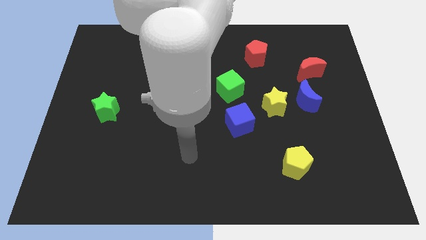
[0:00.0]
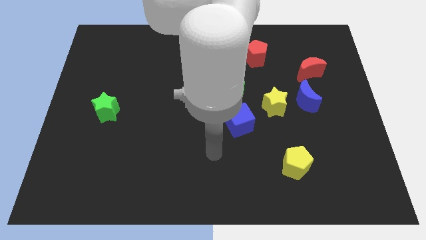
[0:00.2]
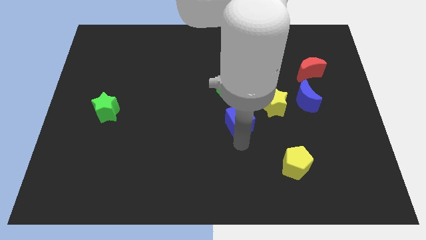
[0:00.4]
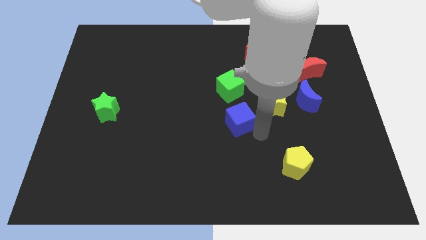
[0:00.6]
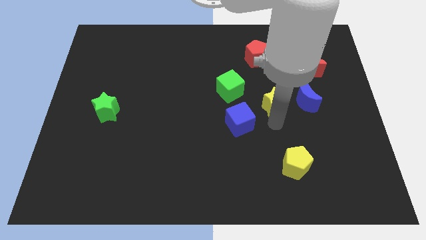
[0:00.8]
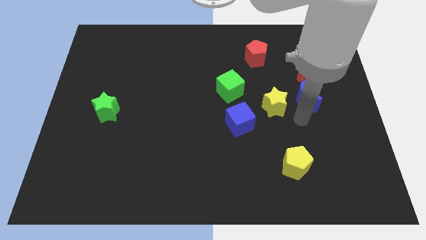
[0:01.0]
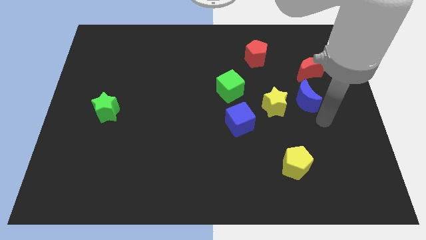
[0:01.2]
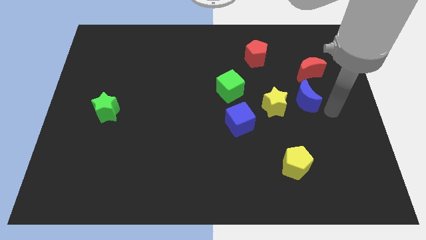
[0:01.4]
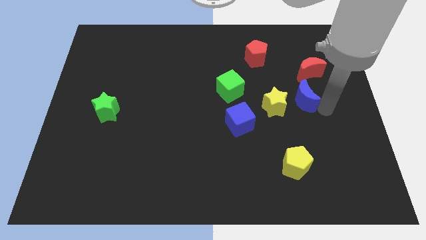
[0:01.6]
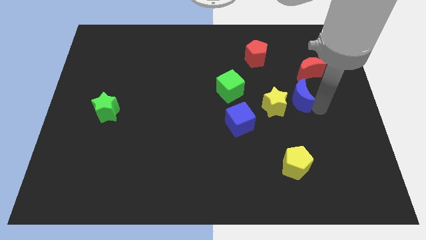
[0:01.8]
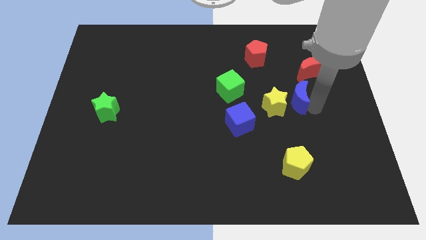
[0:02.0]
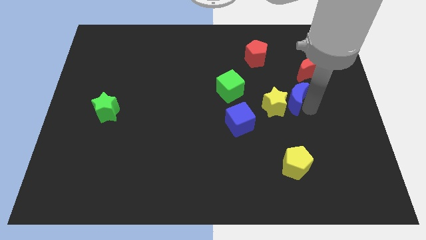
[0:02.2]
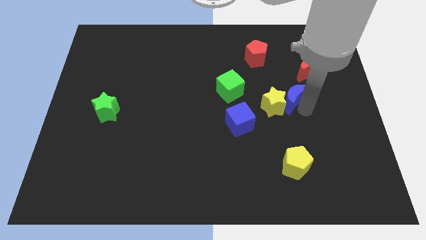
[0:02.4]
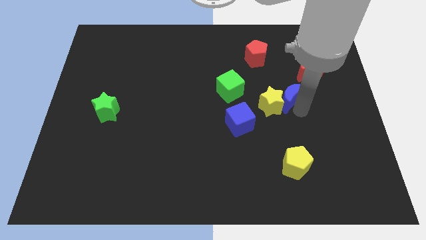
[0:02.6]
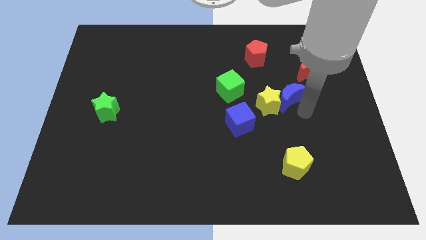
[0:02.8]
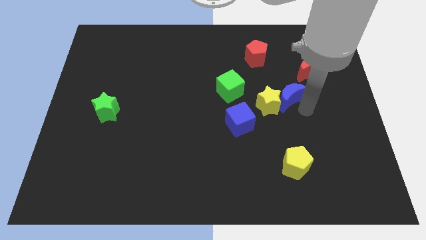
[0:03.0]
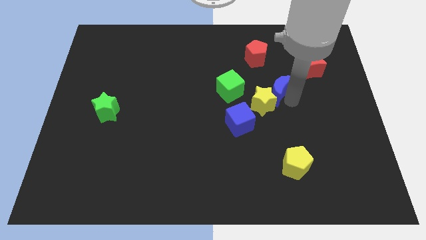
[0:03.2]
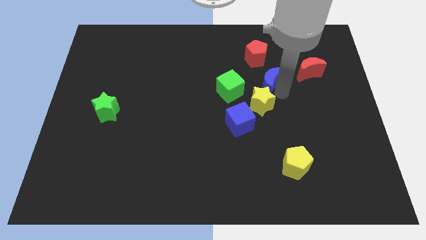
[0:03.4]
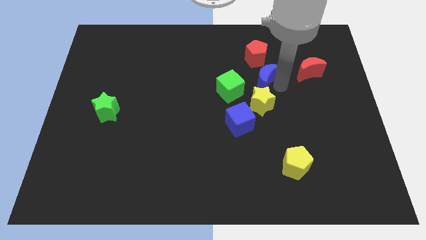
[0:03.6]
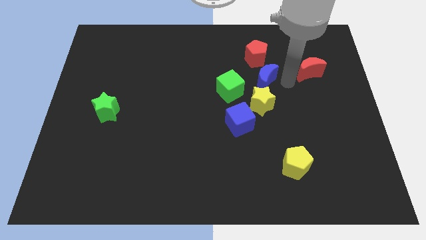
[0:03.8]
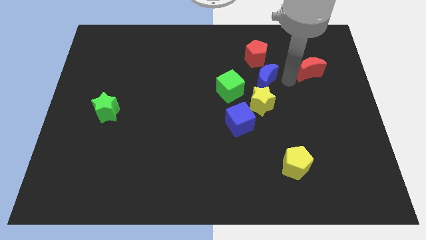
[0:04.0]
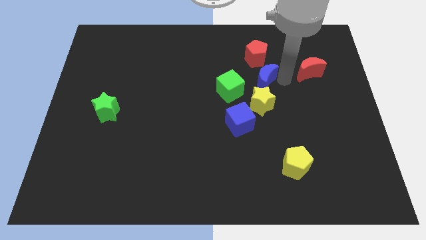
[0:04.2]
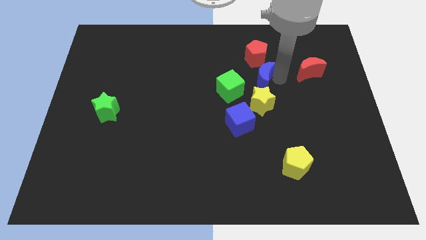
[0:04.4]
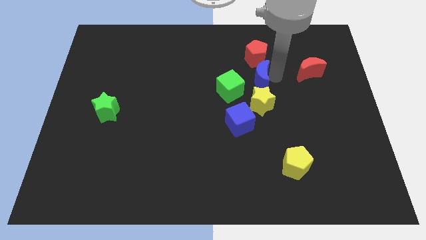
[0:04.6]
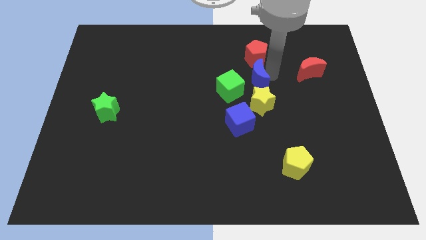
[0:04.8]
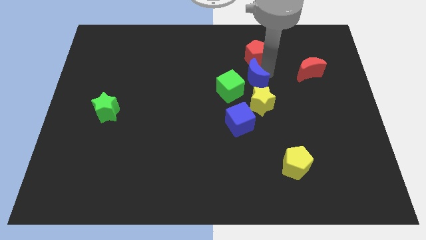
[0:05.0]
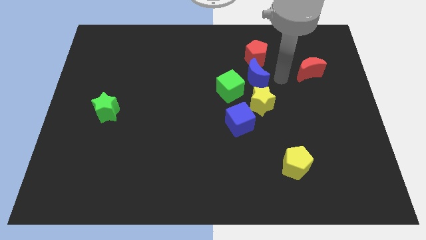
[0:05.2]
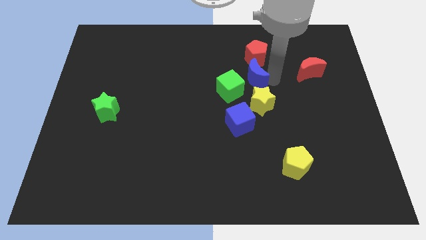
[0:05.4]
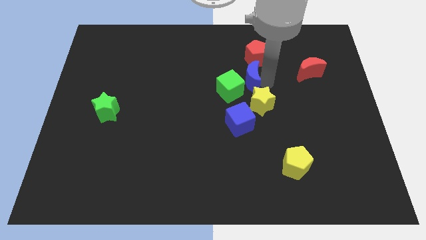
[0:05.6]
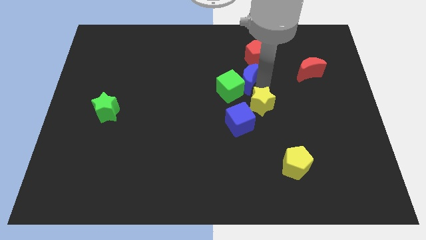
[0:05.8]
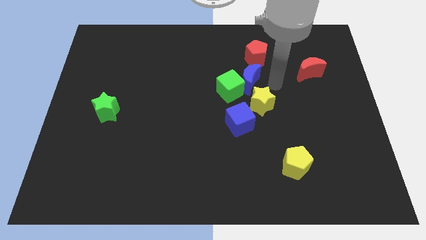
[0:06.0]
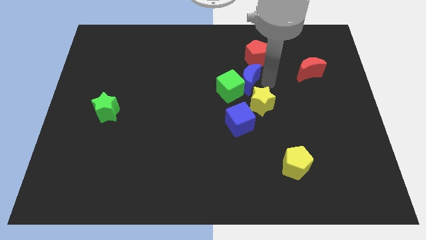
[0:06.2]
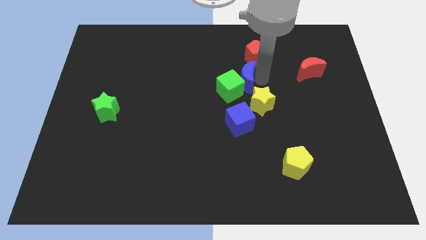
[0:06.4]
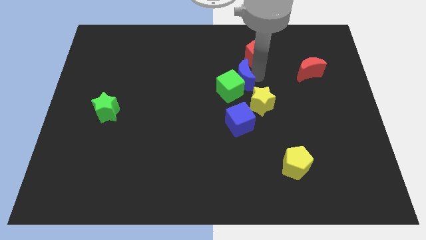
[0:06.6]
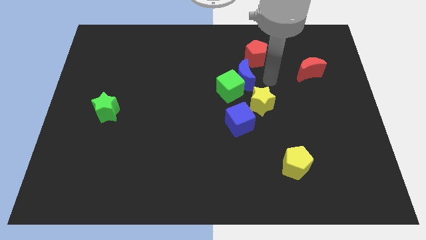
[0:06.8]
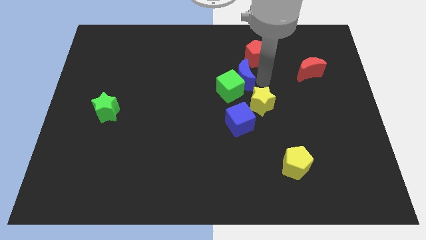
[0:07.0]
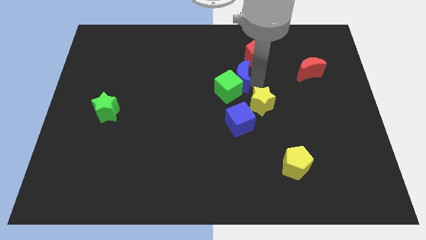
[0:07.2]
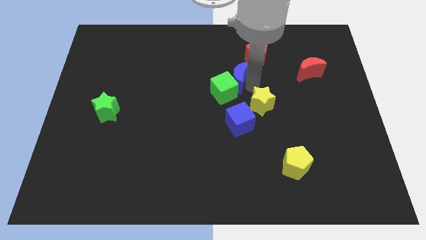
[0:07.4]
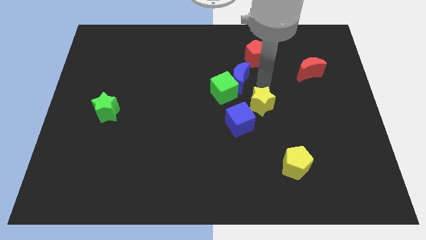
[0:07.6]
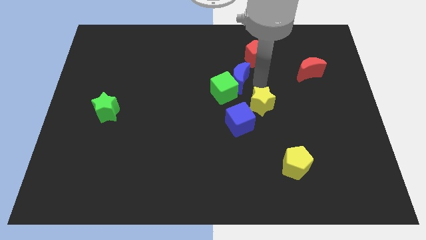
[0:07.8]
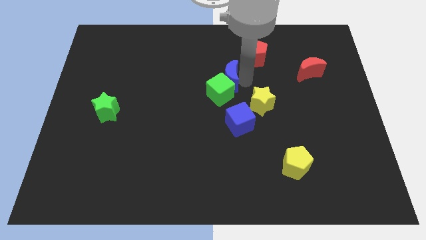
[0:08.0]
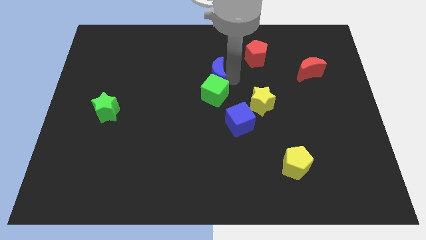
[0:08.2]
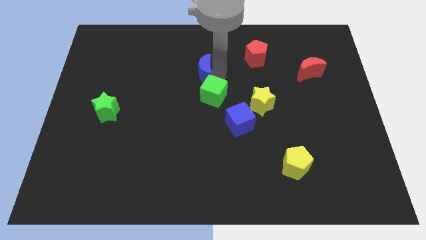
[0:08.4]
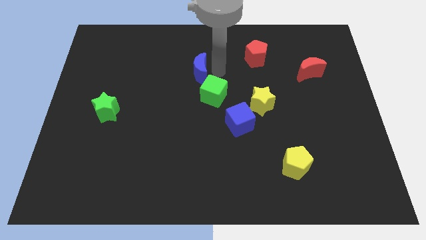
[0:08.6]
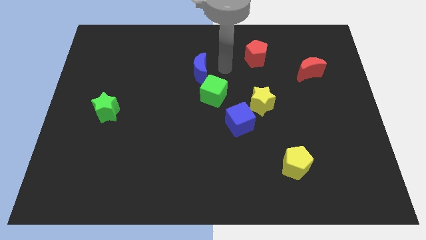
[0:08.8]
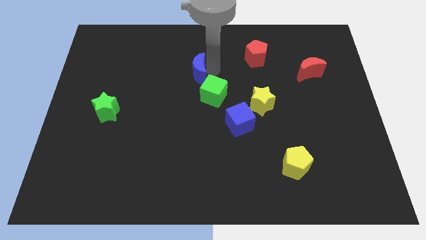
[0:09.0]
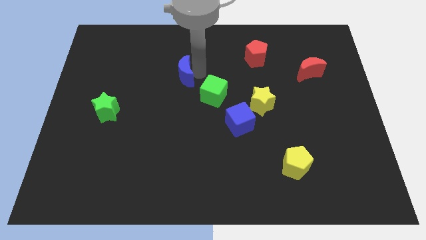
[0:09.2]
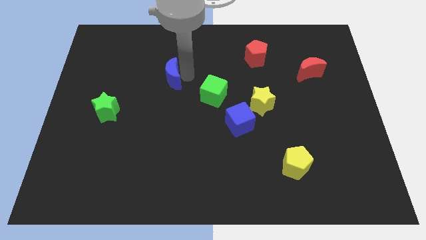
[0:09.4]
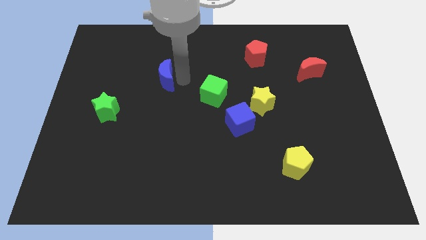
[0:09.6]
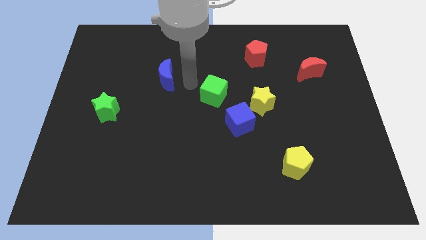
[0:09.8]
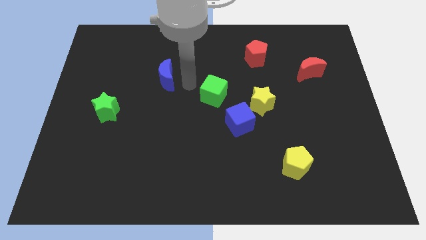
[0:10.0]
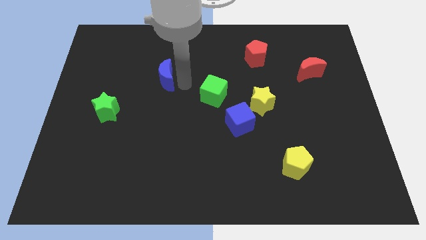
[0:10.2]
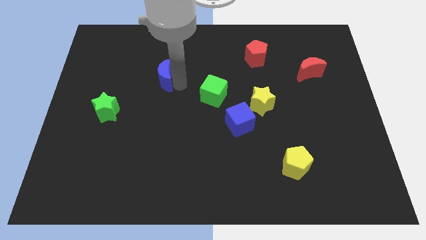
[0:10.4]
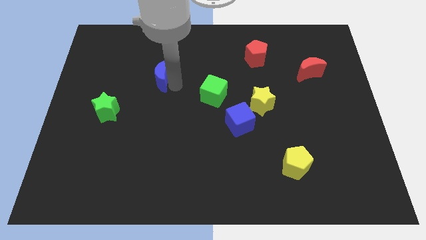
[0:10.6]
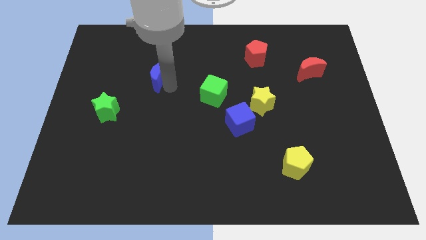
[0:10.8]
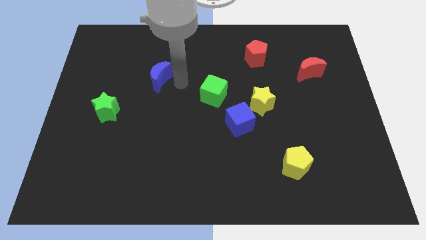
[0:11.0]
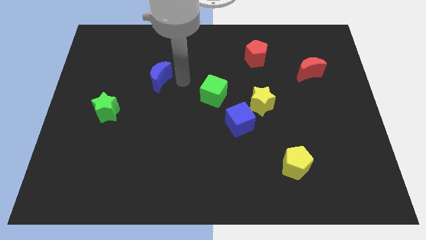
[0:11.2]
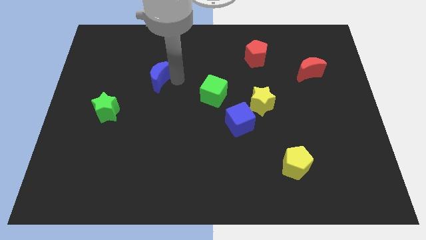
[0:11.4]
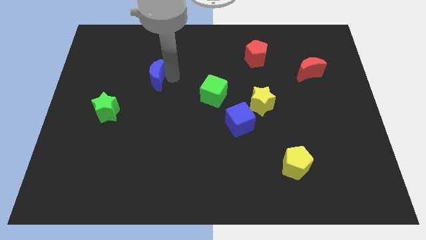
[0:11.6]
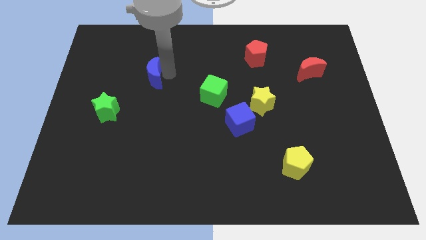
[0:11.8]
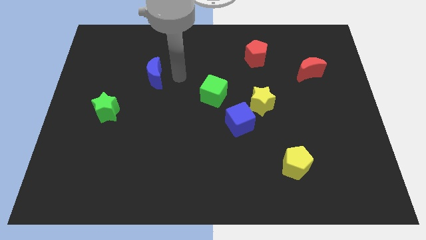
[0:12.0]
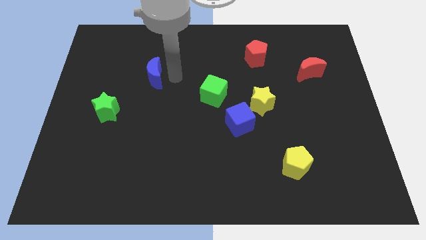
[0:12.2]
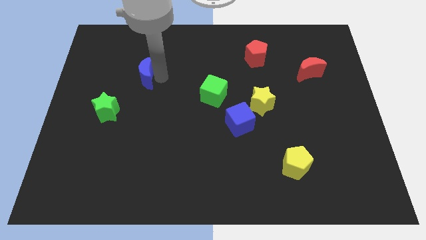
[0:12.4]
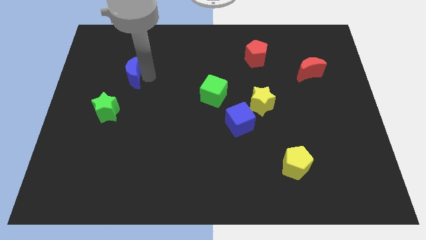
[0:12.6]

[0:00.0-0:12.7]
slide the blue moon above the green star

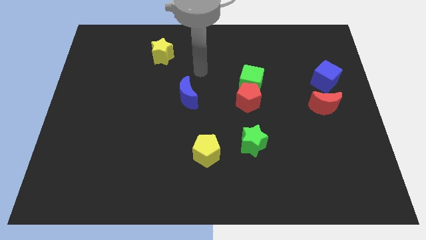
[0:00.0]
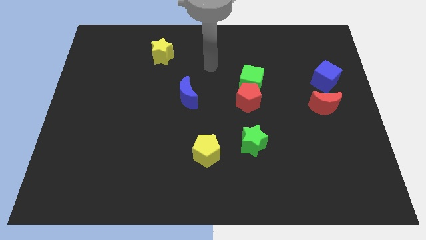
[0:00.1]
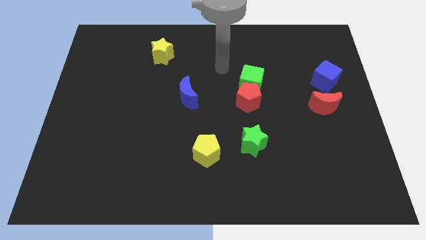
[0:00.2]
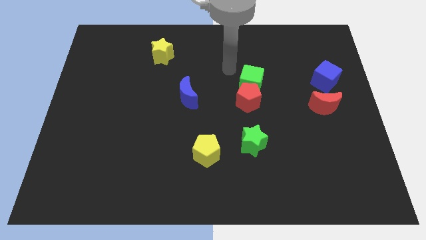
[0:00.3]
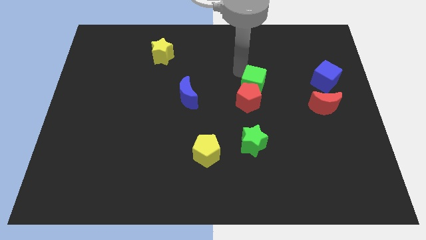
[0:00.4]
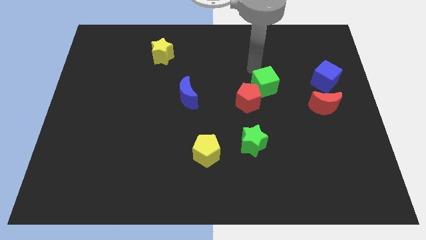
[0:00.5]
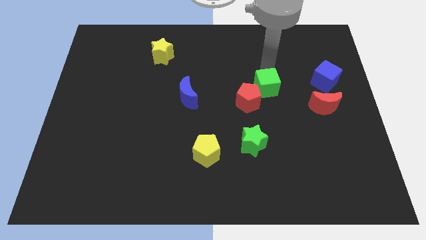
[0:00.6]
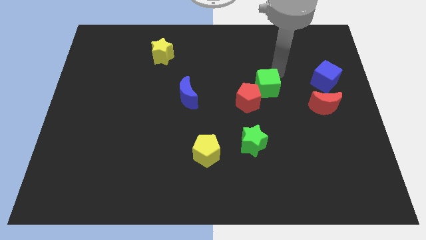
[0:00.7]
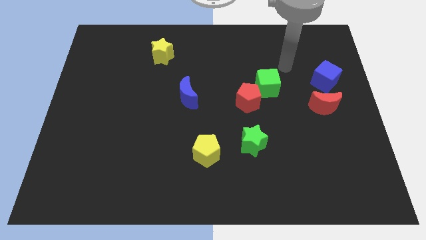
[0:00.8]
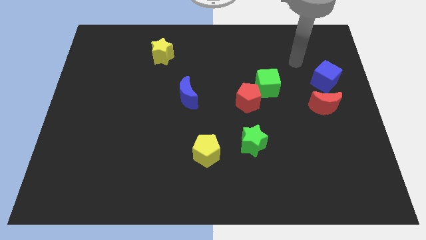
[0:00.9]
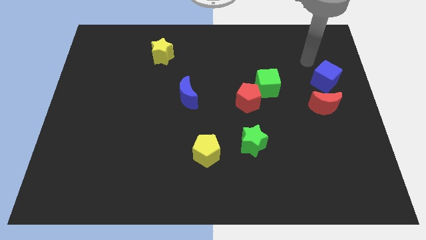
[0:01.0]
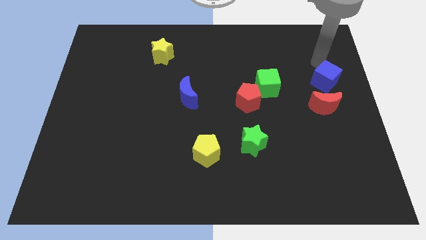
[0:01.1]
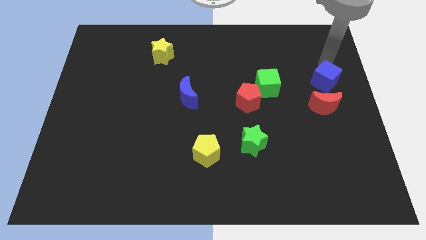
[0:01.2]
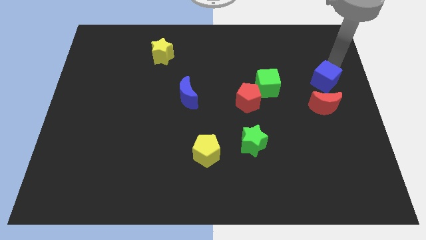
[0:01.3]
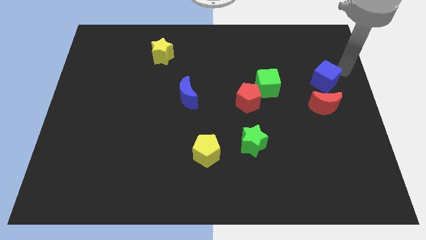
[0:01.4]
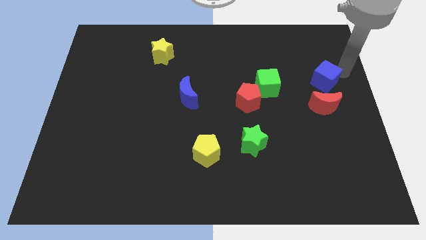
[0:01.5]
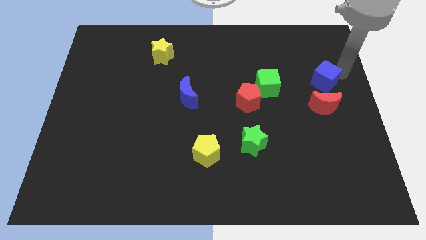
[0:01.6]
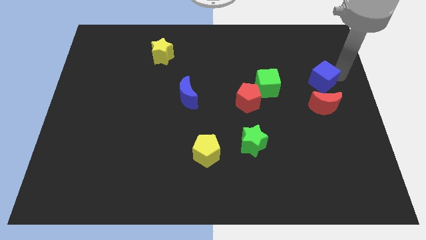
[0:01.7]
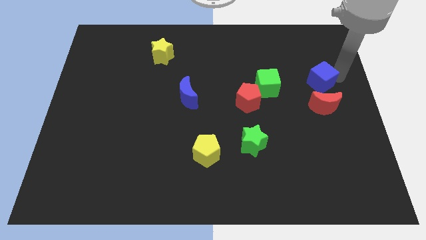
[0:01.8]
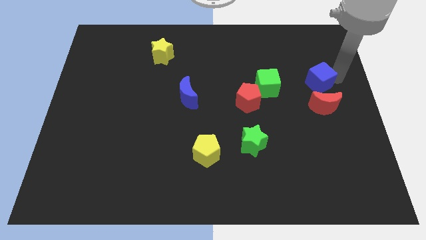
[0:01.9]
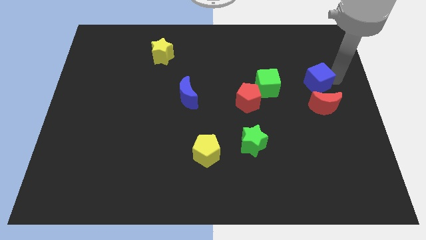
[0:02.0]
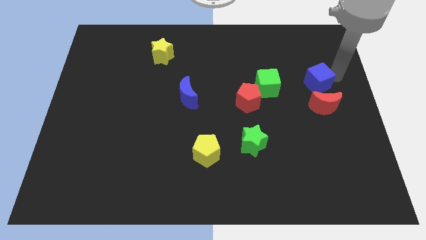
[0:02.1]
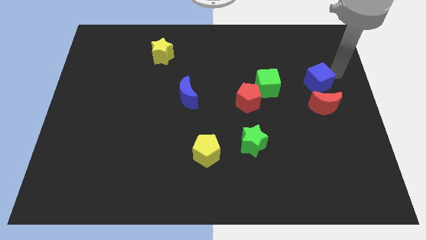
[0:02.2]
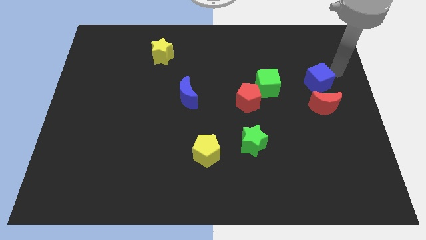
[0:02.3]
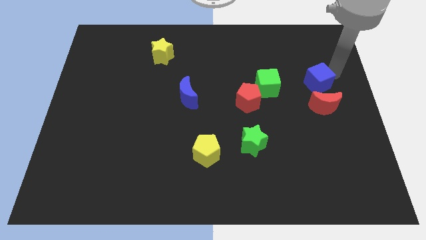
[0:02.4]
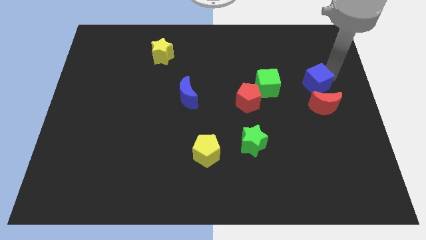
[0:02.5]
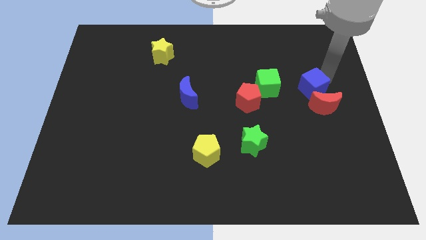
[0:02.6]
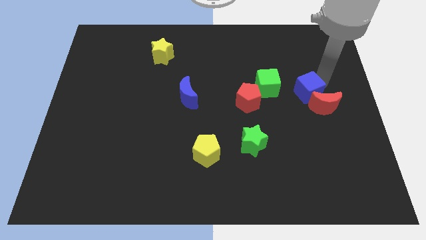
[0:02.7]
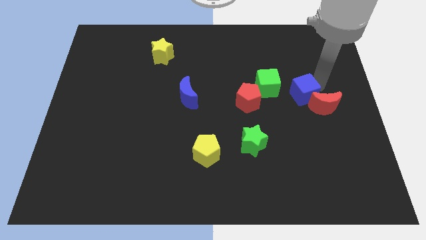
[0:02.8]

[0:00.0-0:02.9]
put the blue cube to the left side of the red moon
